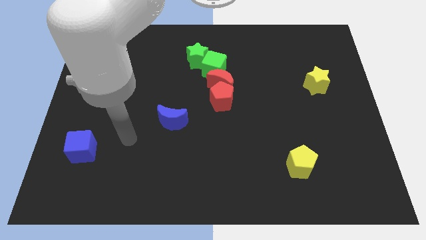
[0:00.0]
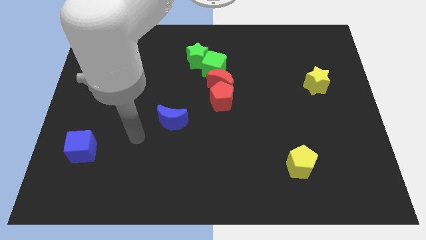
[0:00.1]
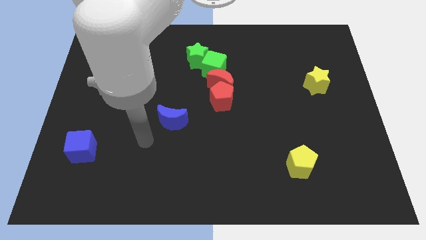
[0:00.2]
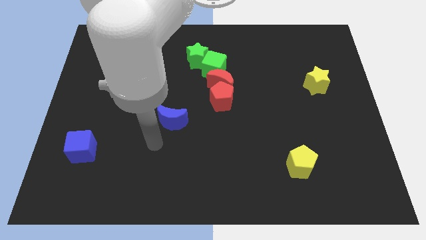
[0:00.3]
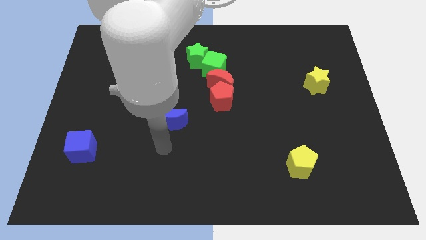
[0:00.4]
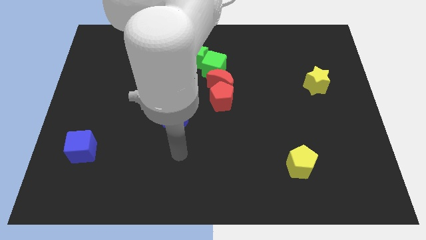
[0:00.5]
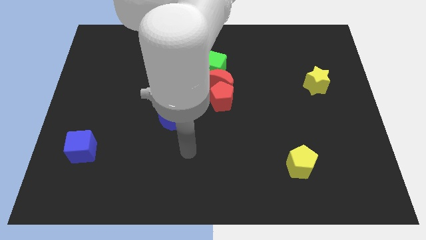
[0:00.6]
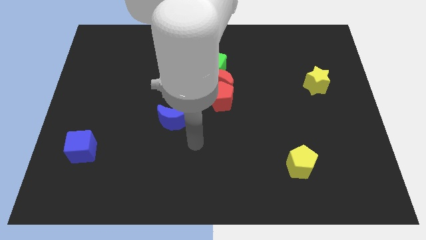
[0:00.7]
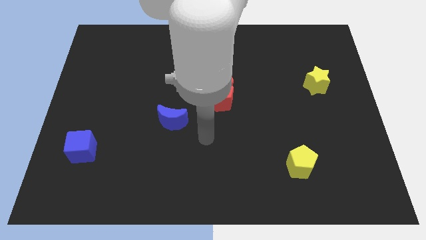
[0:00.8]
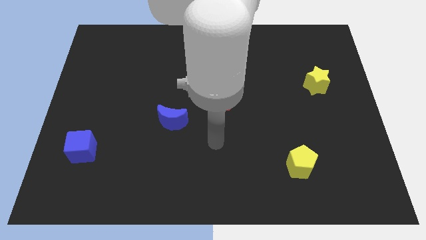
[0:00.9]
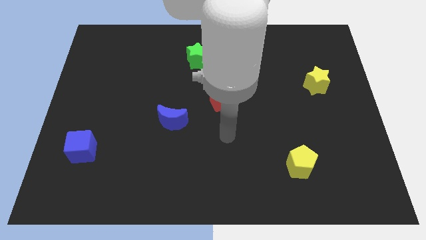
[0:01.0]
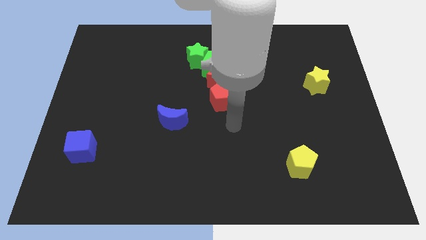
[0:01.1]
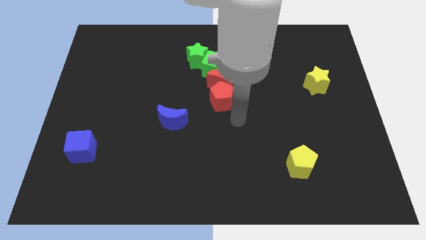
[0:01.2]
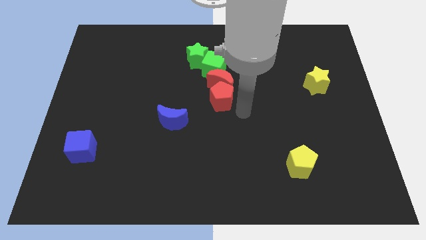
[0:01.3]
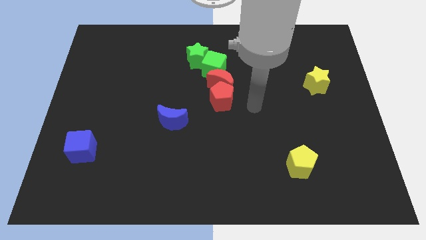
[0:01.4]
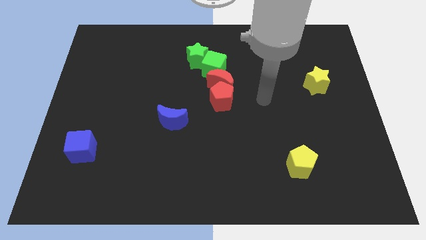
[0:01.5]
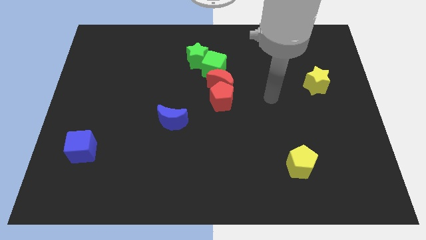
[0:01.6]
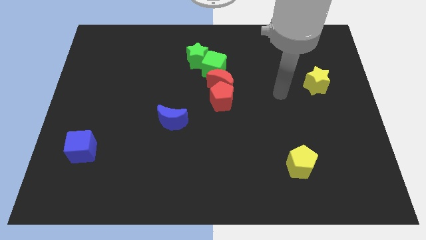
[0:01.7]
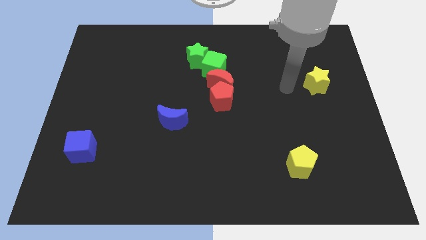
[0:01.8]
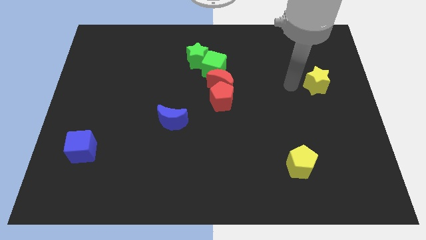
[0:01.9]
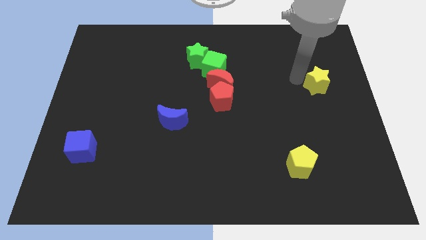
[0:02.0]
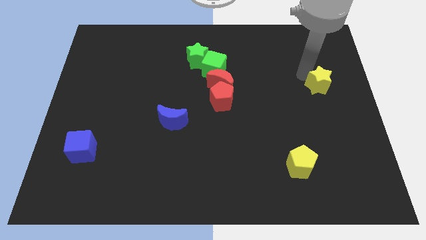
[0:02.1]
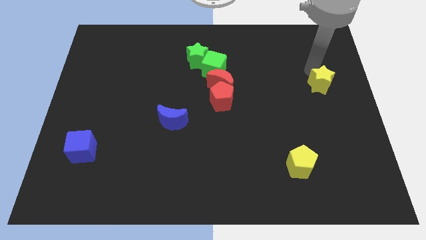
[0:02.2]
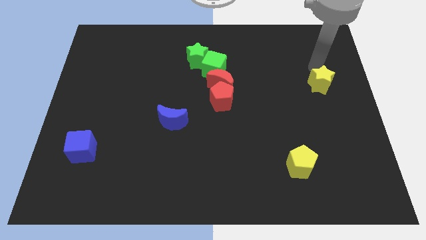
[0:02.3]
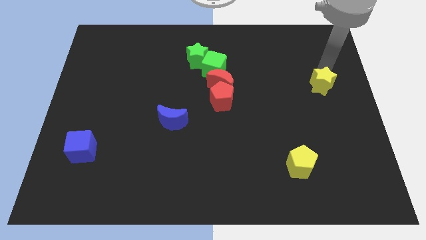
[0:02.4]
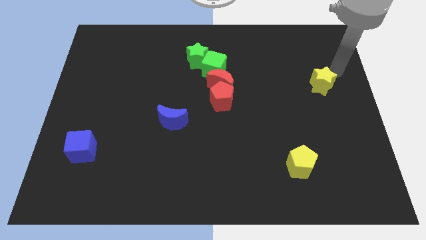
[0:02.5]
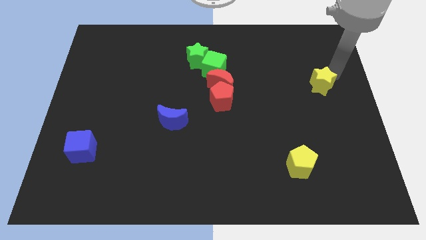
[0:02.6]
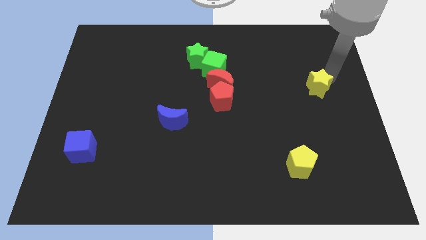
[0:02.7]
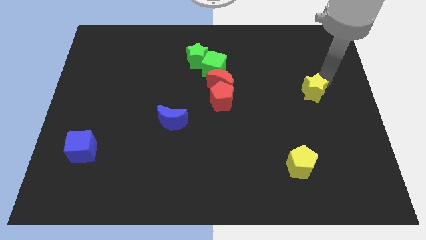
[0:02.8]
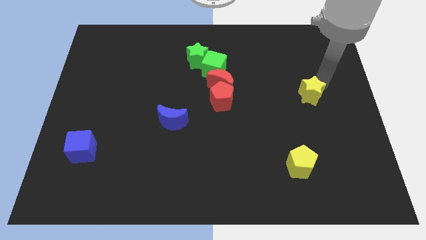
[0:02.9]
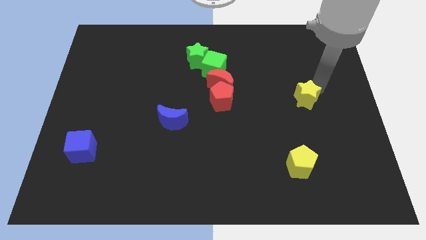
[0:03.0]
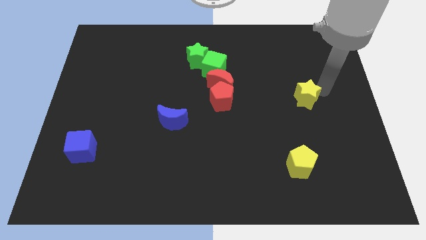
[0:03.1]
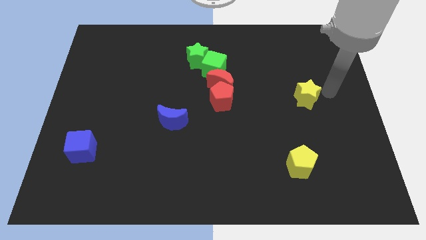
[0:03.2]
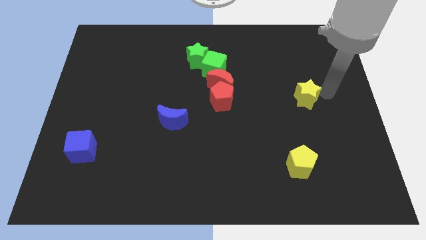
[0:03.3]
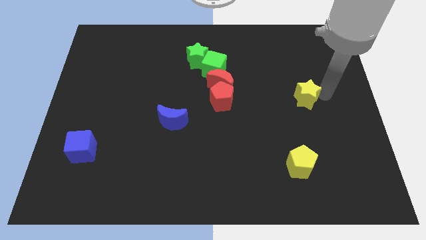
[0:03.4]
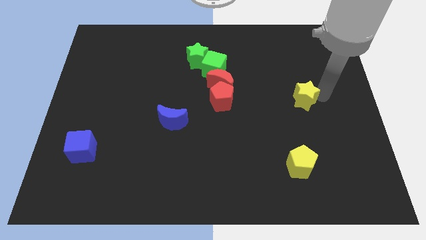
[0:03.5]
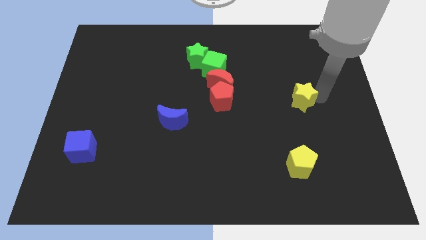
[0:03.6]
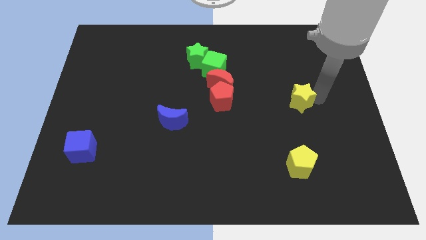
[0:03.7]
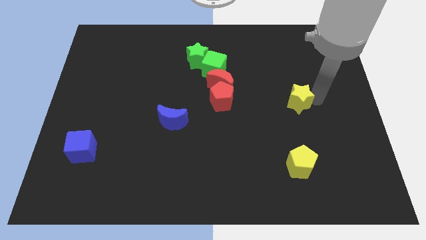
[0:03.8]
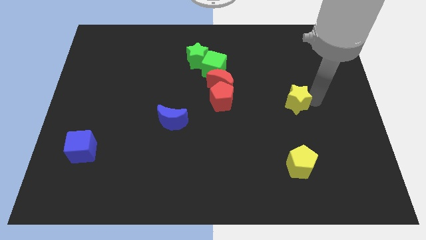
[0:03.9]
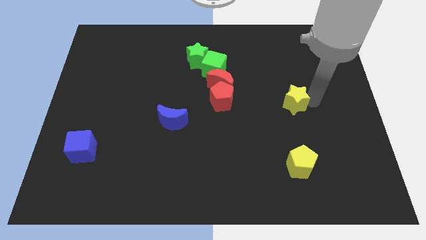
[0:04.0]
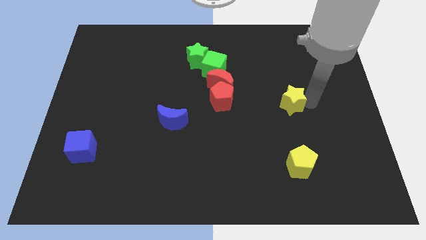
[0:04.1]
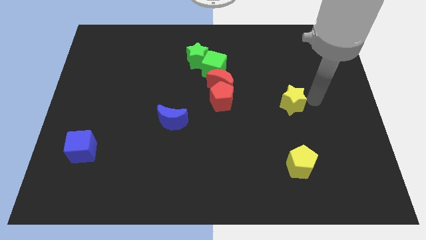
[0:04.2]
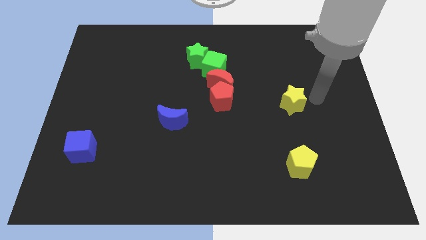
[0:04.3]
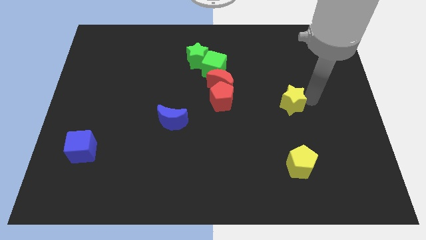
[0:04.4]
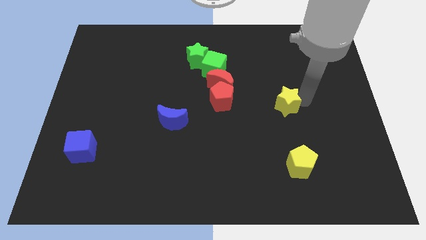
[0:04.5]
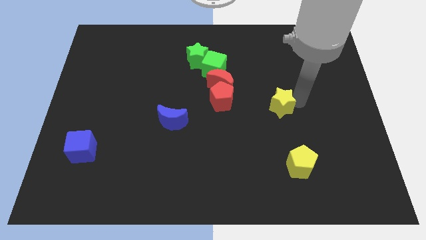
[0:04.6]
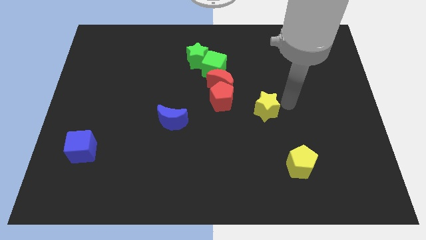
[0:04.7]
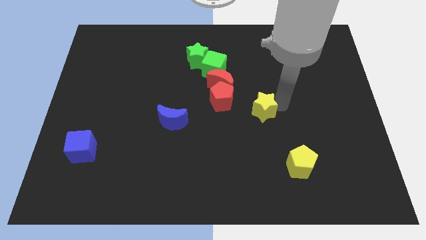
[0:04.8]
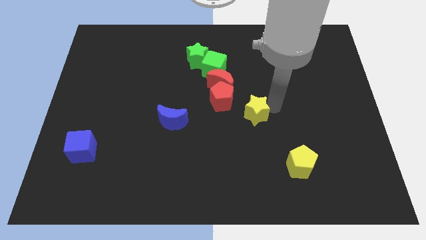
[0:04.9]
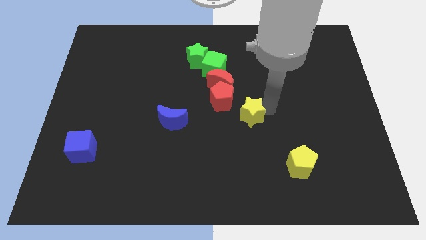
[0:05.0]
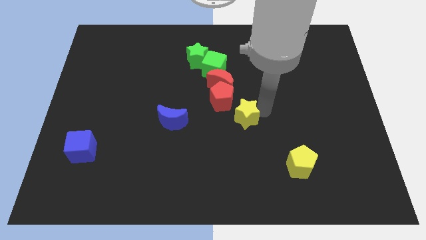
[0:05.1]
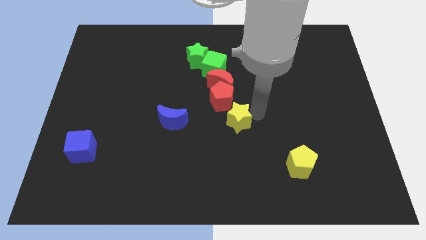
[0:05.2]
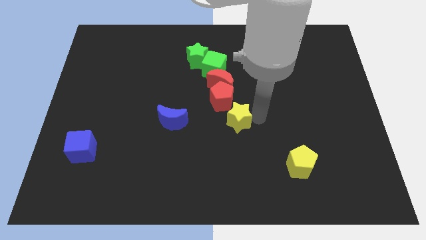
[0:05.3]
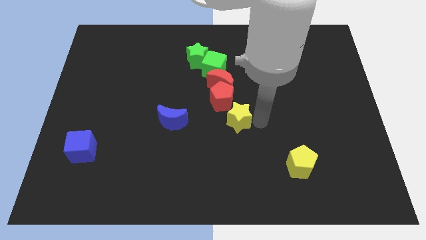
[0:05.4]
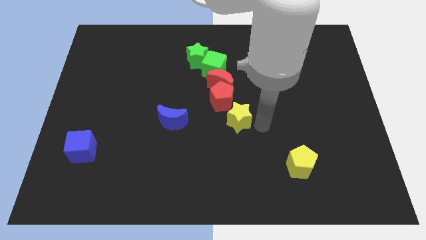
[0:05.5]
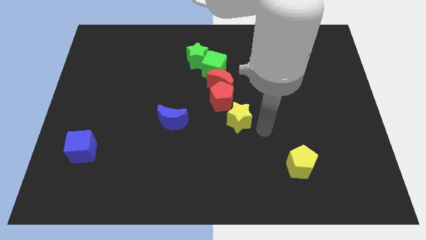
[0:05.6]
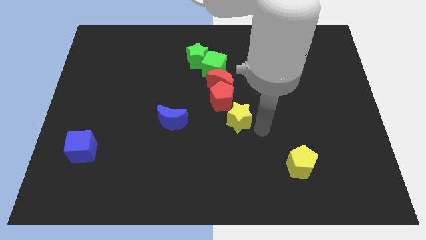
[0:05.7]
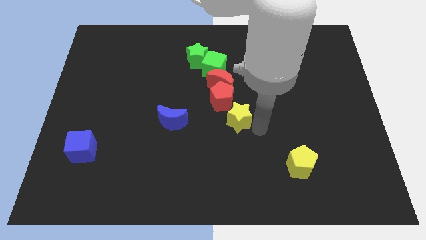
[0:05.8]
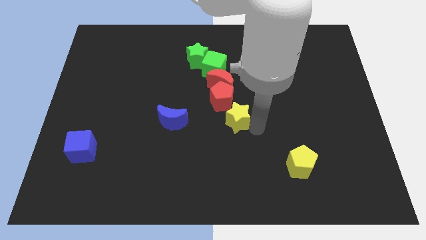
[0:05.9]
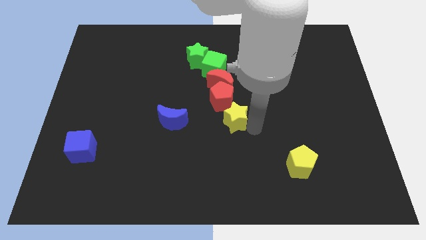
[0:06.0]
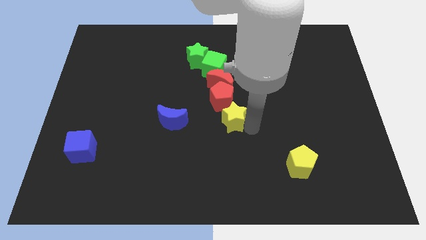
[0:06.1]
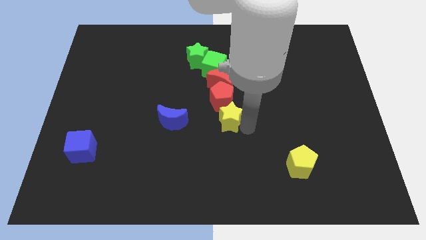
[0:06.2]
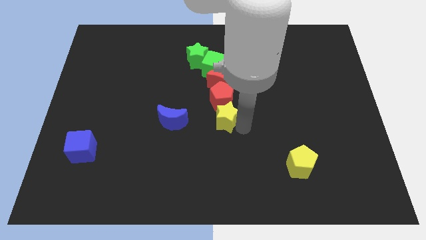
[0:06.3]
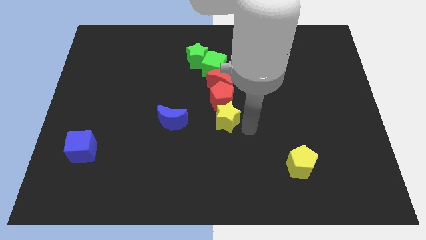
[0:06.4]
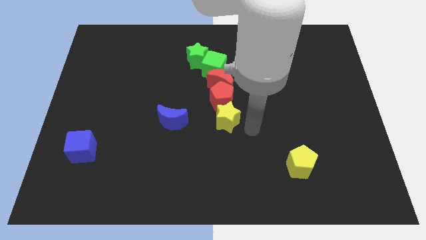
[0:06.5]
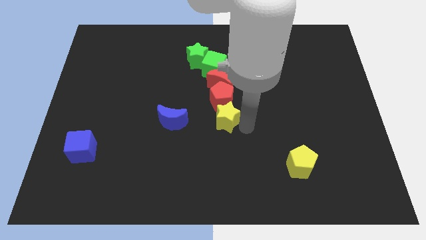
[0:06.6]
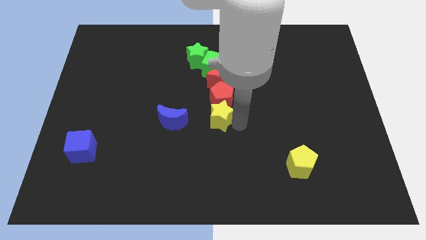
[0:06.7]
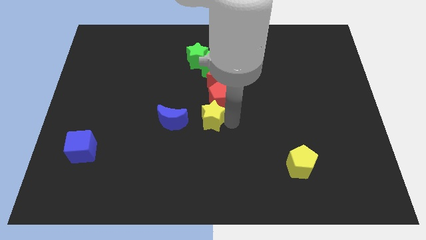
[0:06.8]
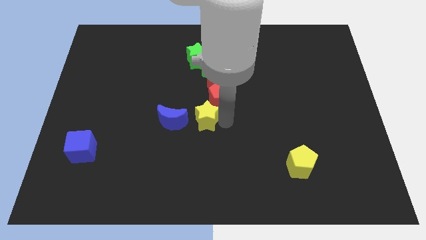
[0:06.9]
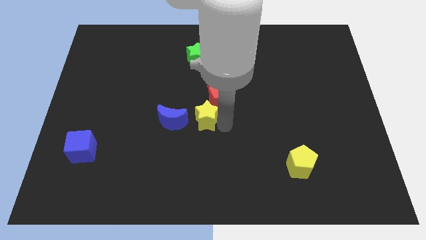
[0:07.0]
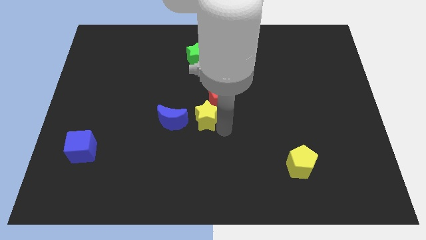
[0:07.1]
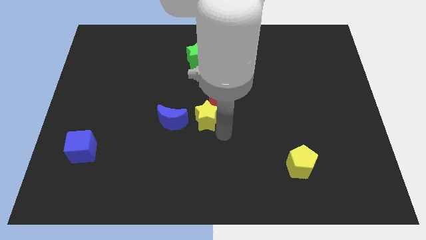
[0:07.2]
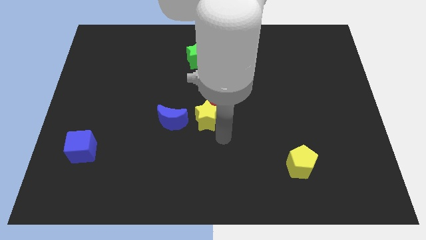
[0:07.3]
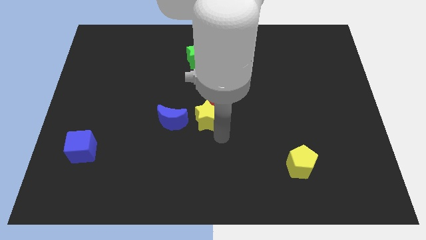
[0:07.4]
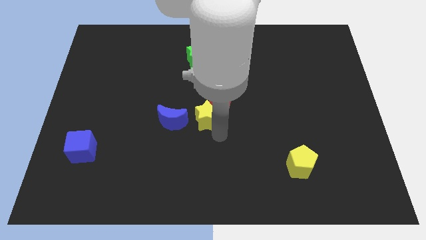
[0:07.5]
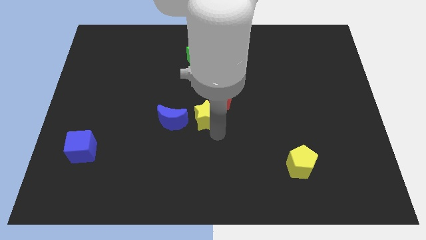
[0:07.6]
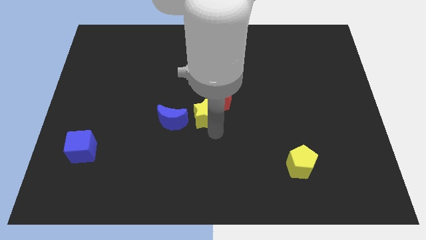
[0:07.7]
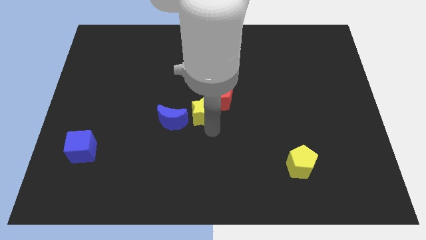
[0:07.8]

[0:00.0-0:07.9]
slide the yellow star to the left side of the red pentagon
